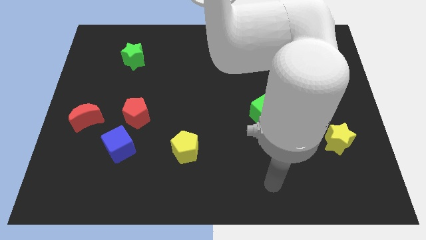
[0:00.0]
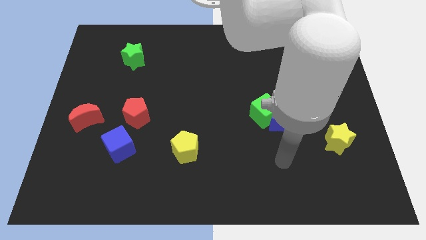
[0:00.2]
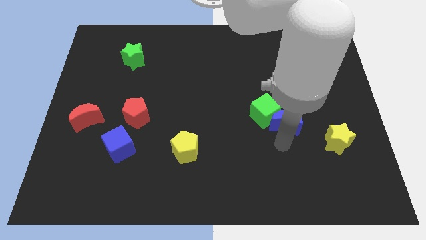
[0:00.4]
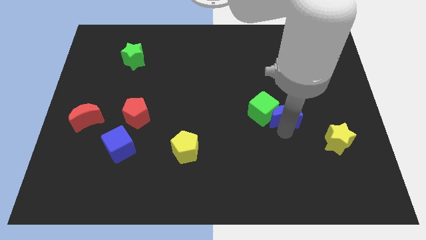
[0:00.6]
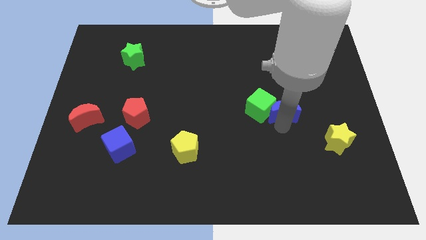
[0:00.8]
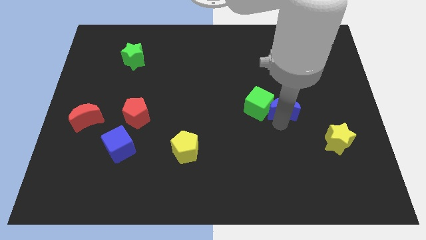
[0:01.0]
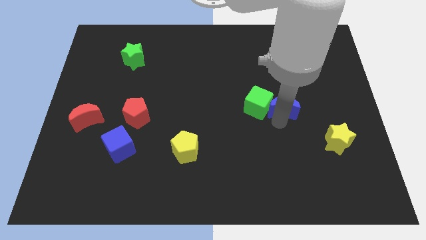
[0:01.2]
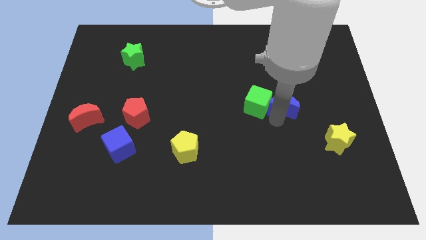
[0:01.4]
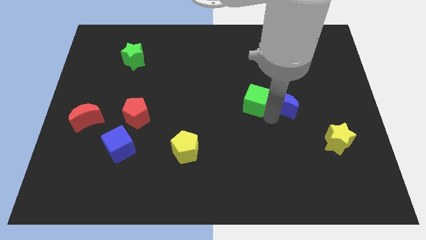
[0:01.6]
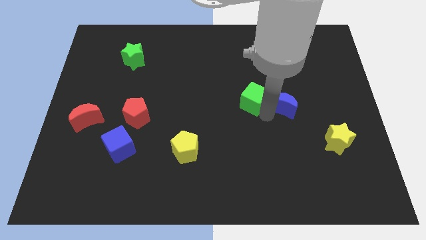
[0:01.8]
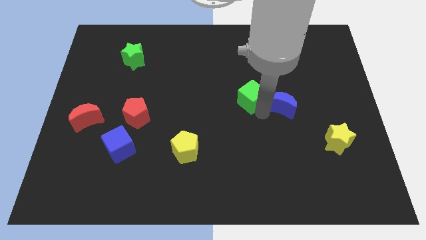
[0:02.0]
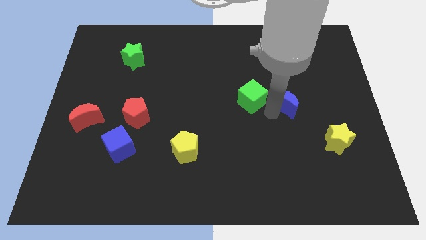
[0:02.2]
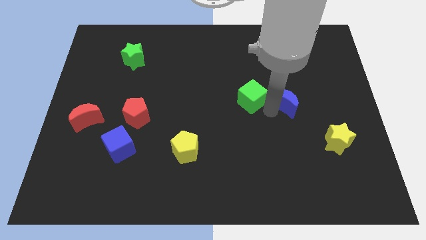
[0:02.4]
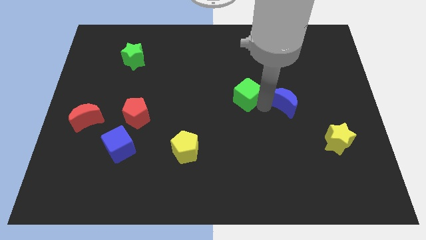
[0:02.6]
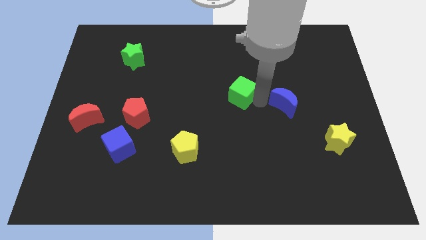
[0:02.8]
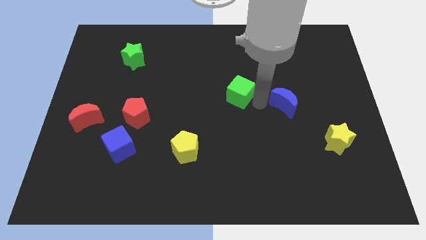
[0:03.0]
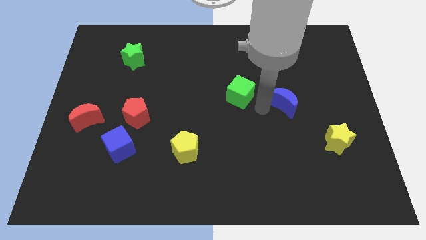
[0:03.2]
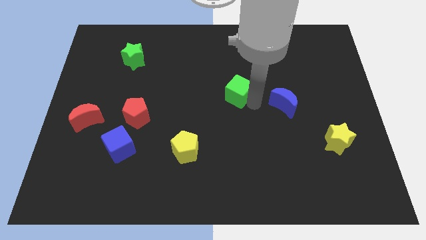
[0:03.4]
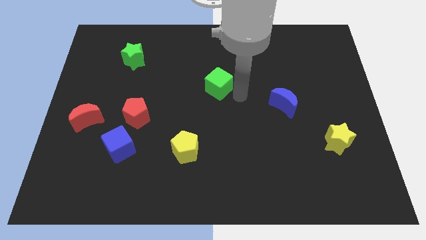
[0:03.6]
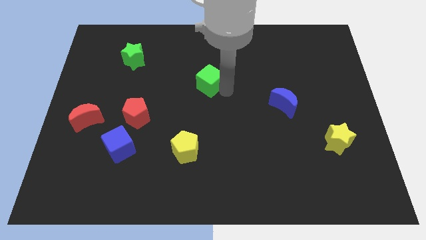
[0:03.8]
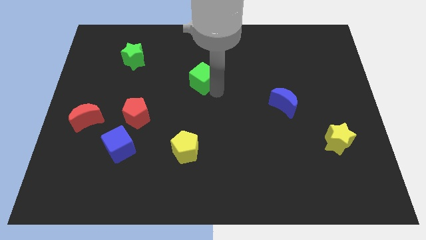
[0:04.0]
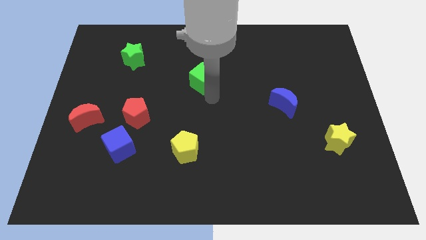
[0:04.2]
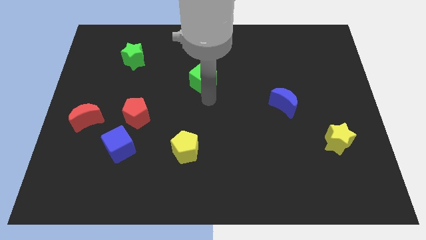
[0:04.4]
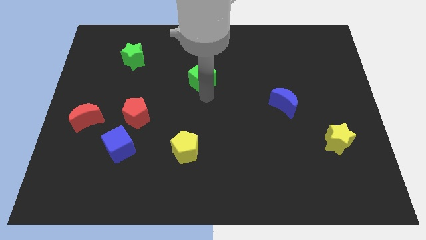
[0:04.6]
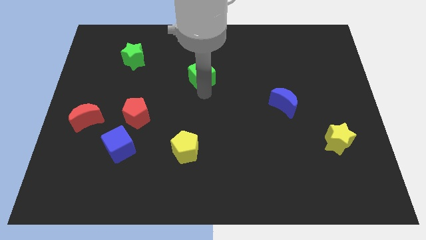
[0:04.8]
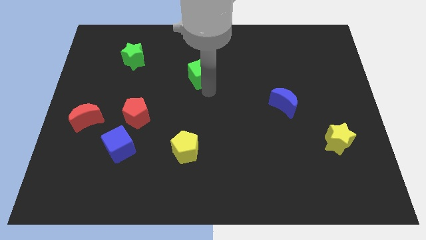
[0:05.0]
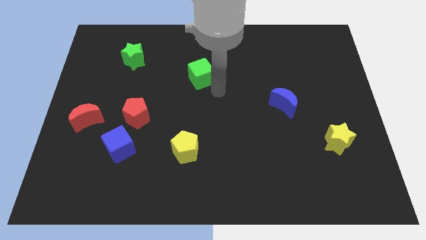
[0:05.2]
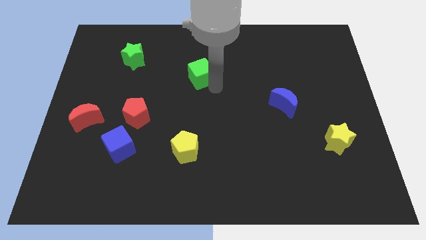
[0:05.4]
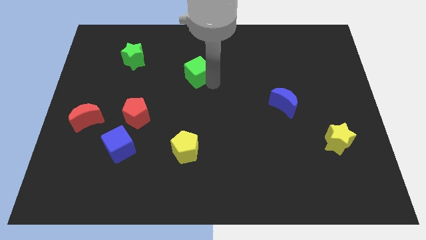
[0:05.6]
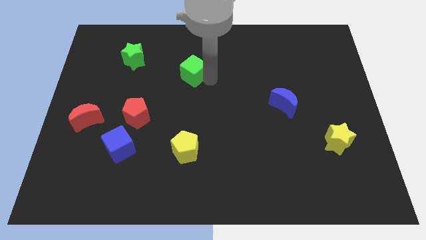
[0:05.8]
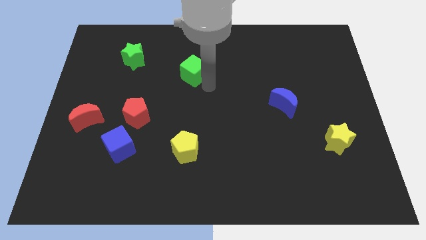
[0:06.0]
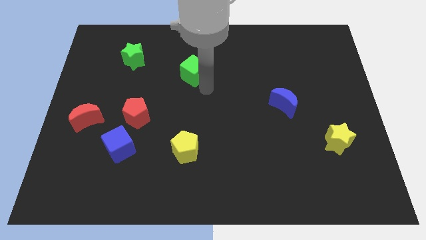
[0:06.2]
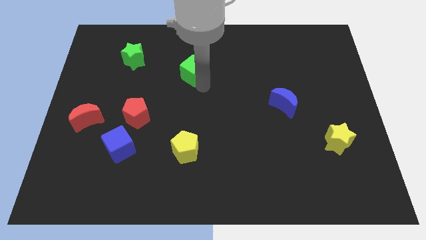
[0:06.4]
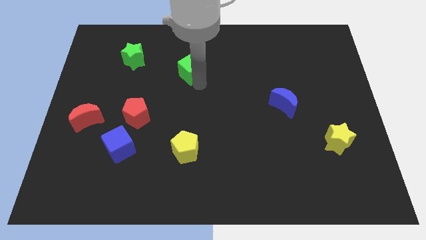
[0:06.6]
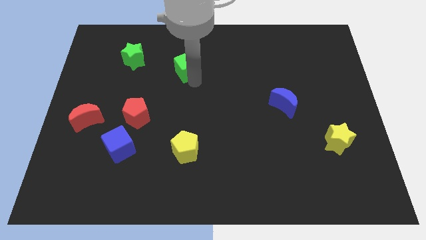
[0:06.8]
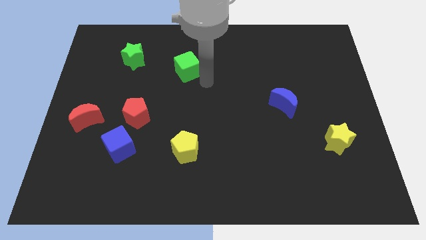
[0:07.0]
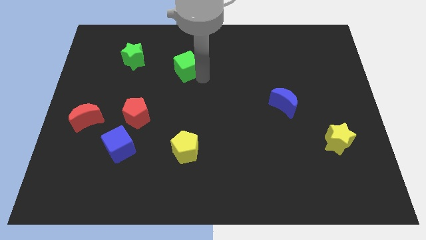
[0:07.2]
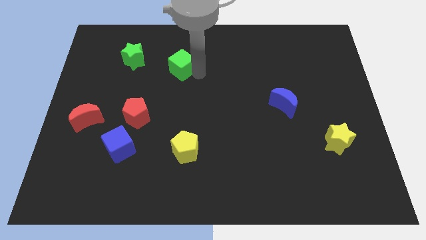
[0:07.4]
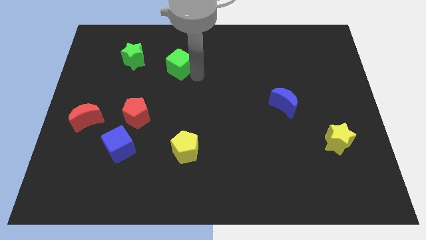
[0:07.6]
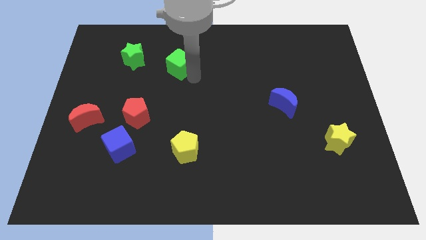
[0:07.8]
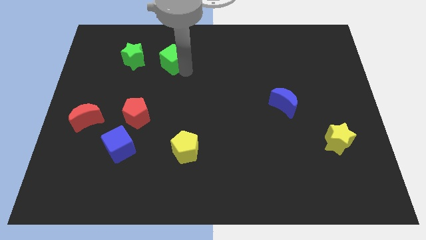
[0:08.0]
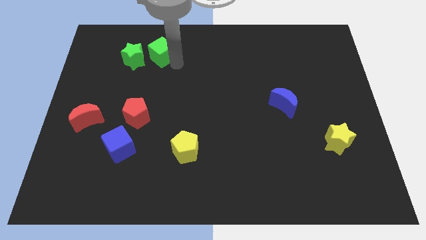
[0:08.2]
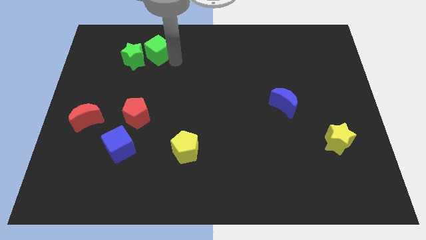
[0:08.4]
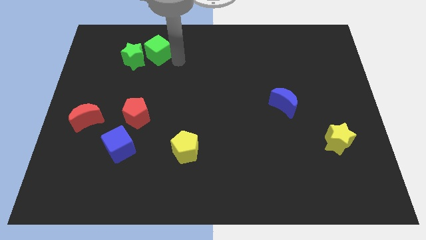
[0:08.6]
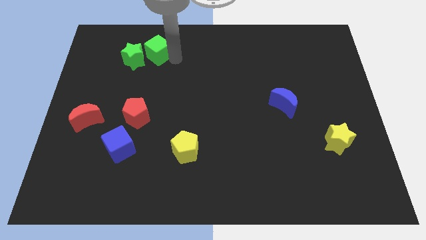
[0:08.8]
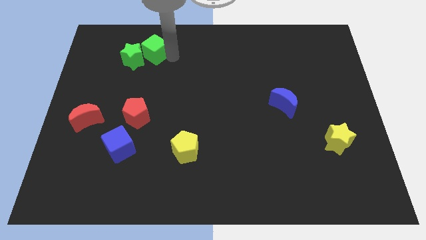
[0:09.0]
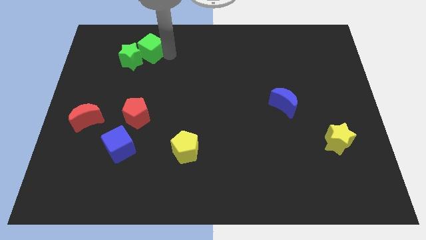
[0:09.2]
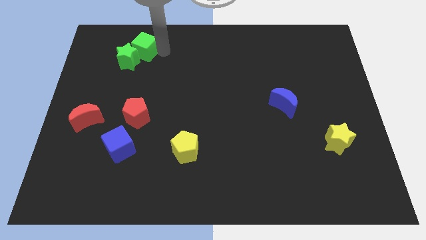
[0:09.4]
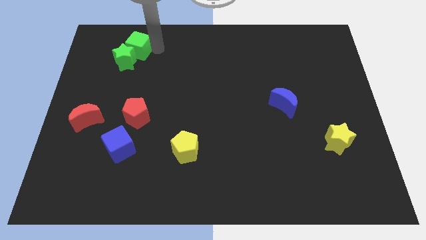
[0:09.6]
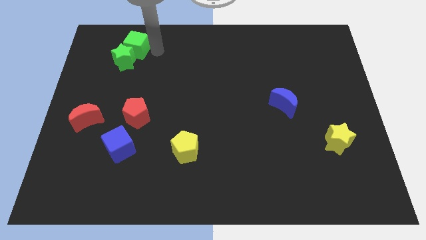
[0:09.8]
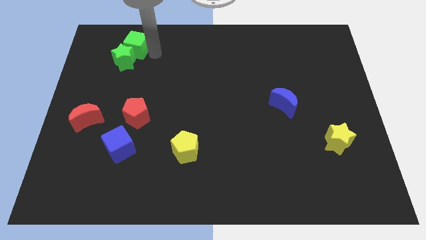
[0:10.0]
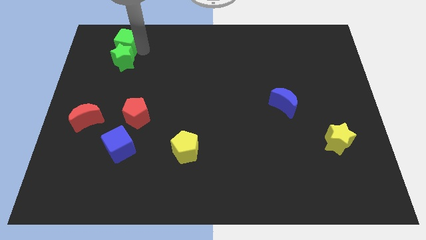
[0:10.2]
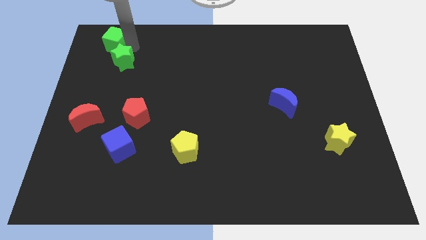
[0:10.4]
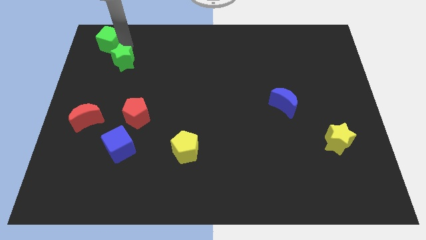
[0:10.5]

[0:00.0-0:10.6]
put the green cube to the upper left corner

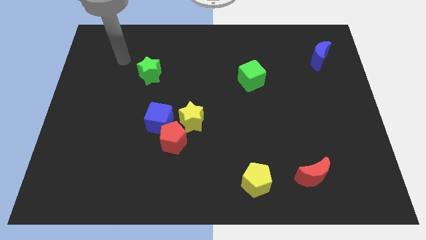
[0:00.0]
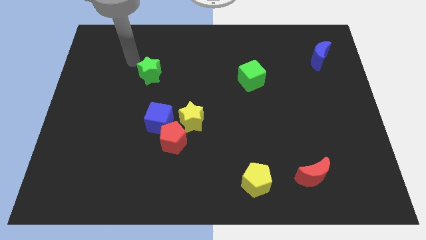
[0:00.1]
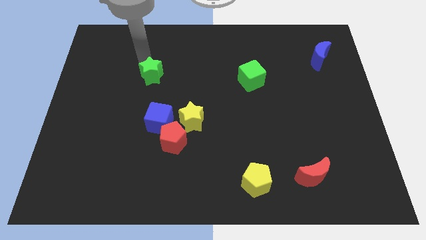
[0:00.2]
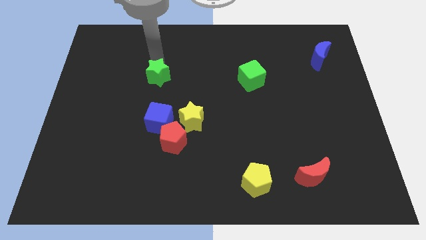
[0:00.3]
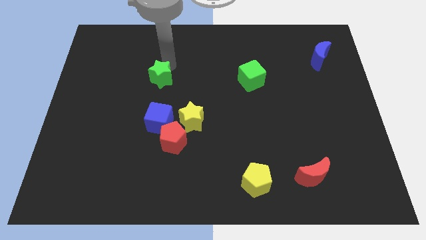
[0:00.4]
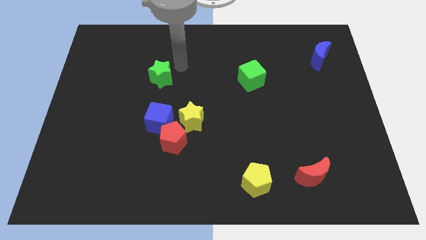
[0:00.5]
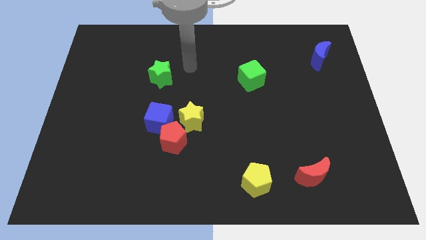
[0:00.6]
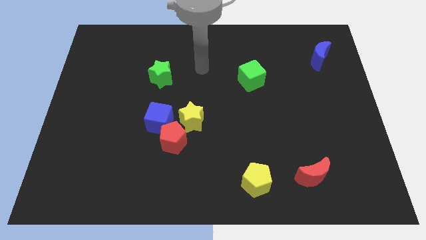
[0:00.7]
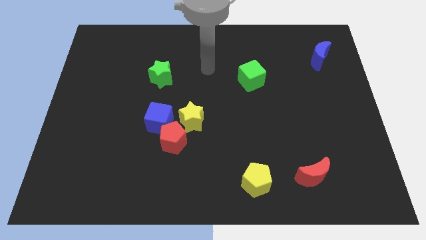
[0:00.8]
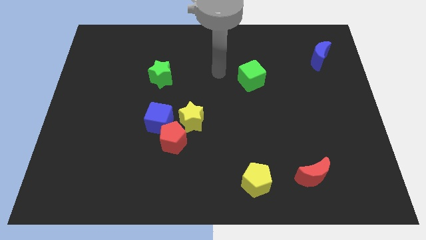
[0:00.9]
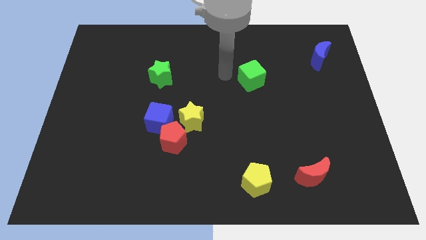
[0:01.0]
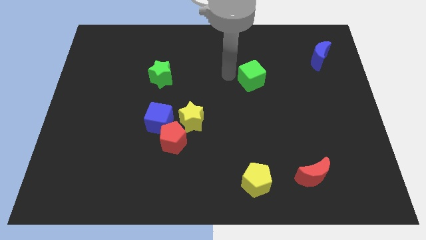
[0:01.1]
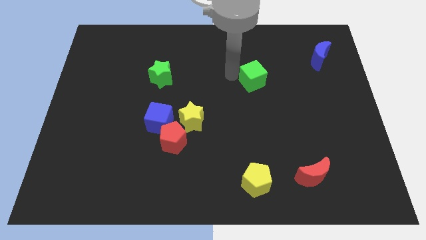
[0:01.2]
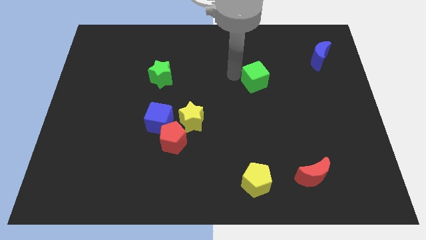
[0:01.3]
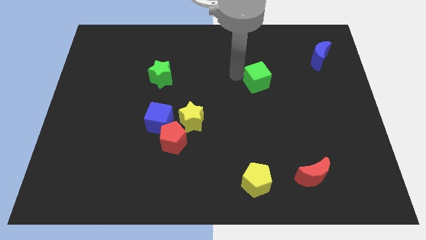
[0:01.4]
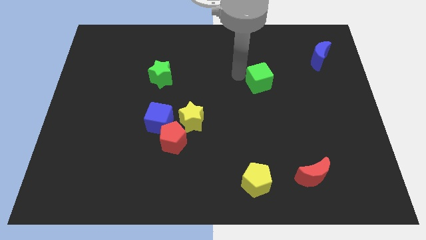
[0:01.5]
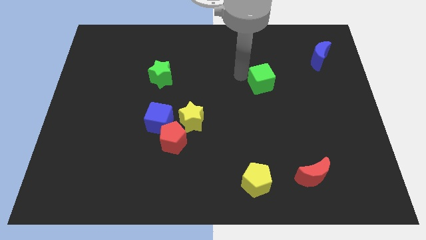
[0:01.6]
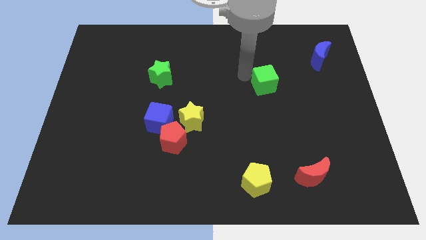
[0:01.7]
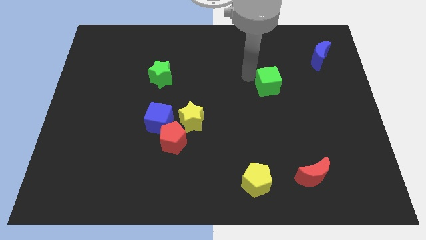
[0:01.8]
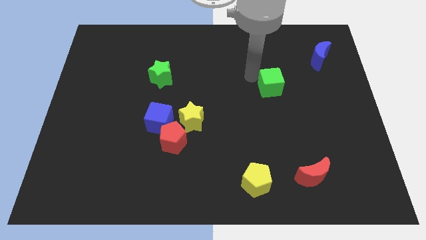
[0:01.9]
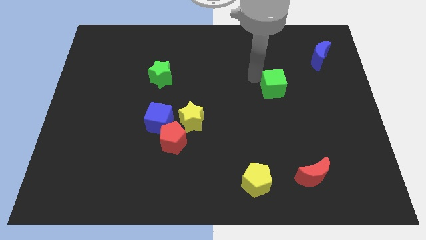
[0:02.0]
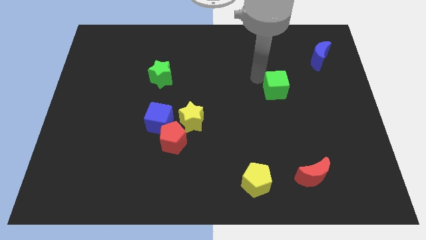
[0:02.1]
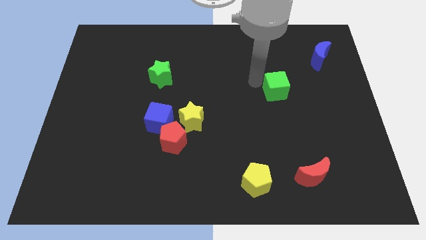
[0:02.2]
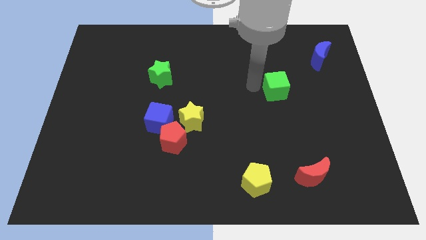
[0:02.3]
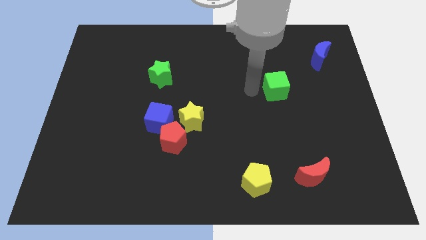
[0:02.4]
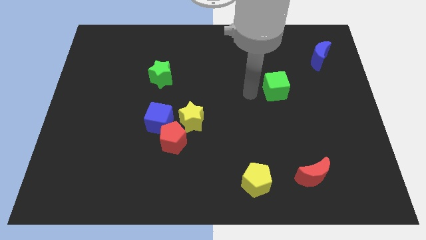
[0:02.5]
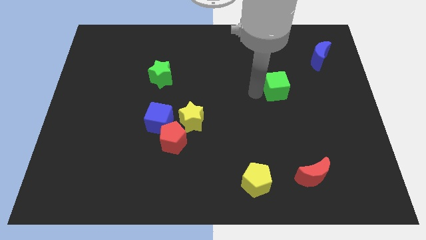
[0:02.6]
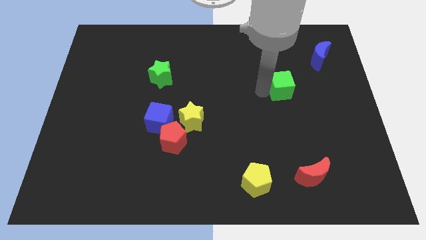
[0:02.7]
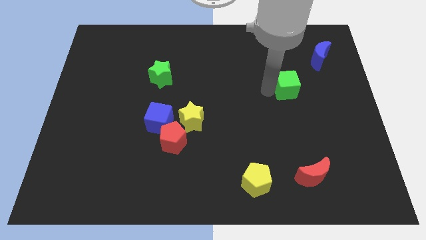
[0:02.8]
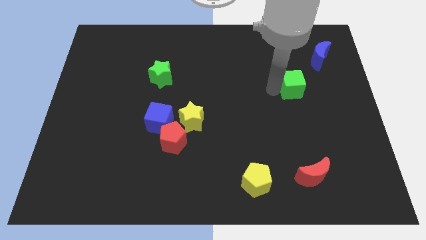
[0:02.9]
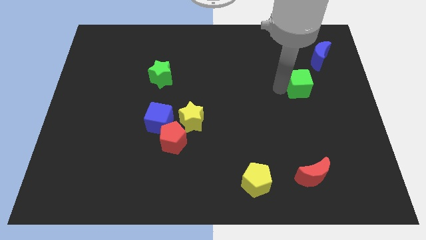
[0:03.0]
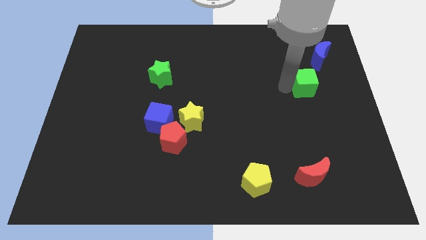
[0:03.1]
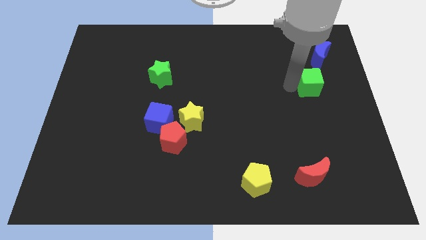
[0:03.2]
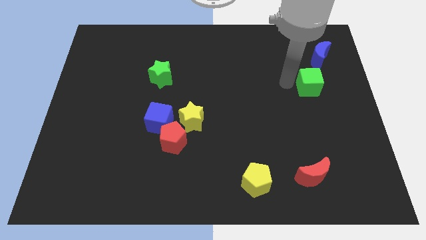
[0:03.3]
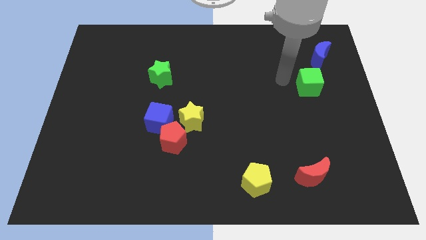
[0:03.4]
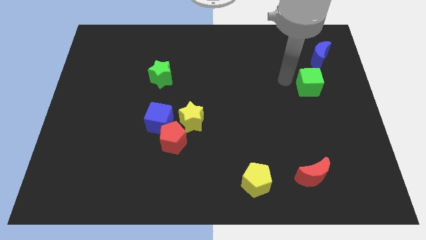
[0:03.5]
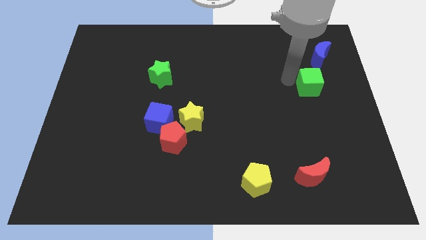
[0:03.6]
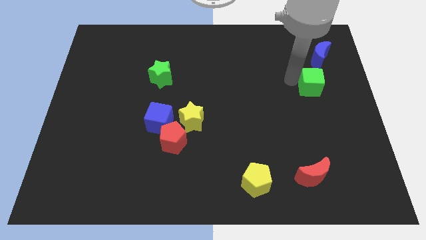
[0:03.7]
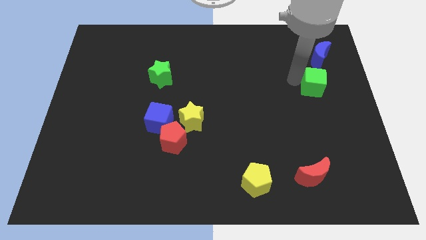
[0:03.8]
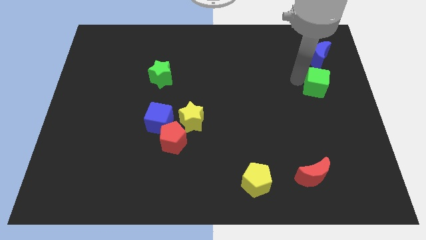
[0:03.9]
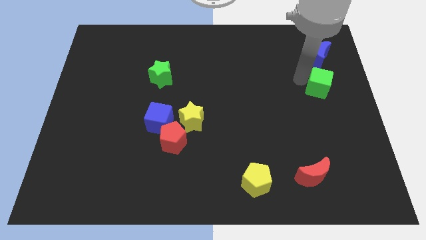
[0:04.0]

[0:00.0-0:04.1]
put the green cube to the right side
